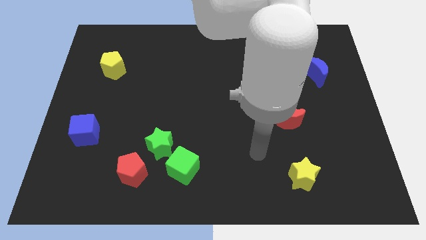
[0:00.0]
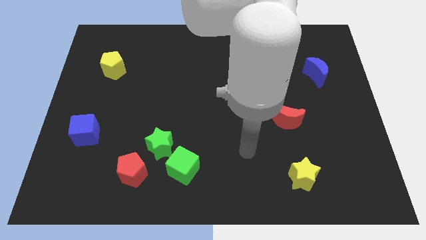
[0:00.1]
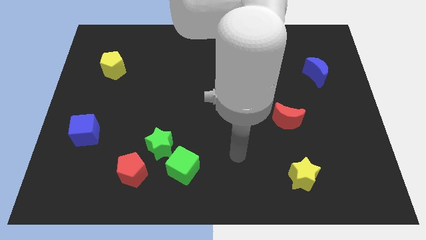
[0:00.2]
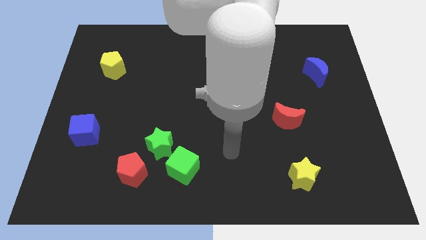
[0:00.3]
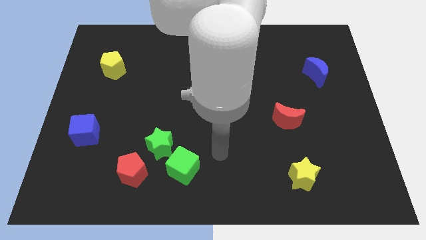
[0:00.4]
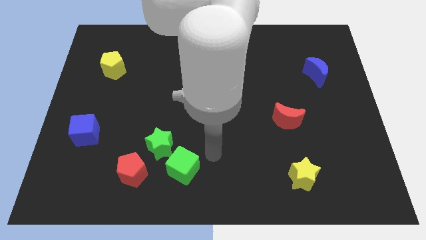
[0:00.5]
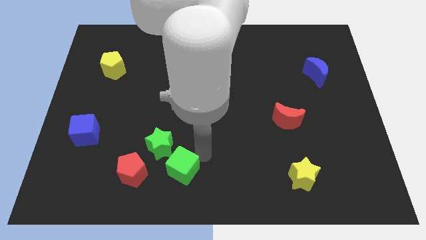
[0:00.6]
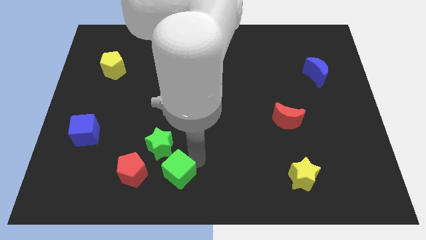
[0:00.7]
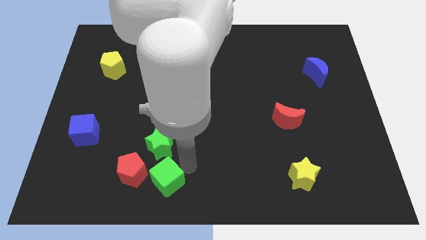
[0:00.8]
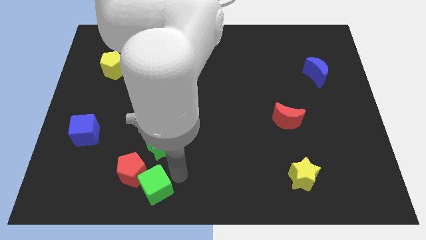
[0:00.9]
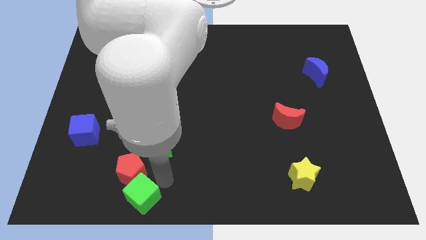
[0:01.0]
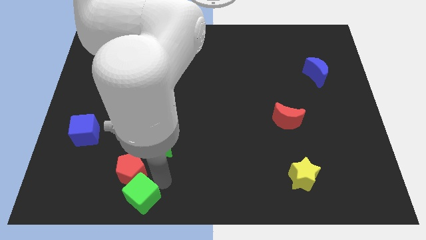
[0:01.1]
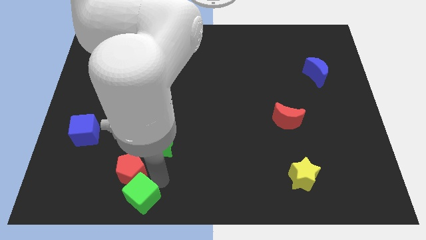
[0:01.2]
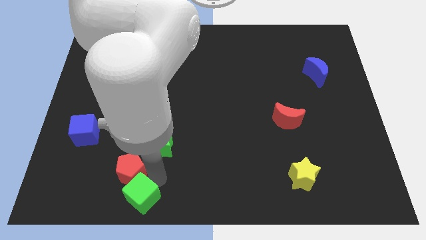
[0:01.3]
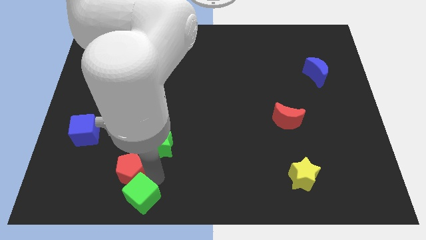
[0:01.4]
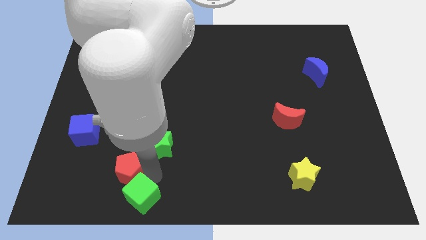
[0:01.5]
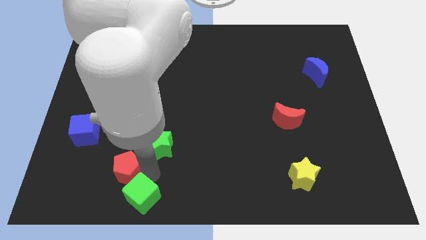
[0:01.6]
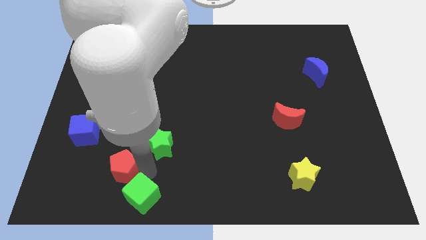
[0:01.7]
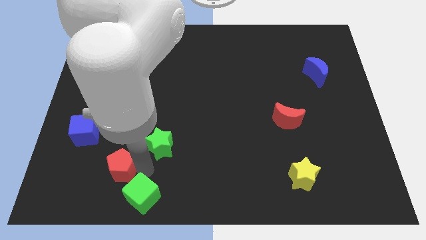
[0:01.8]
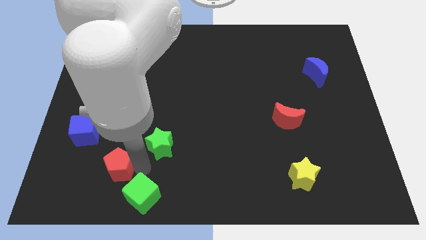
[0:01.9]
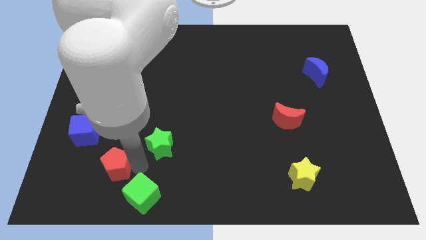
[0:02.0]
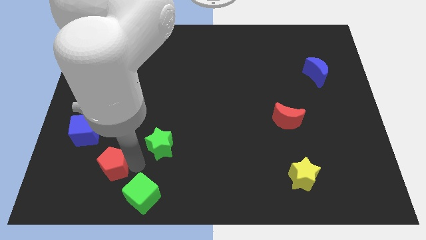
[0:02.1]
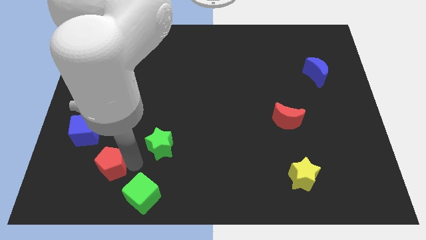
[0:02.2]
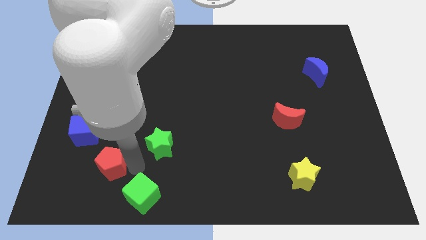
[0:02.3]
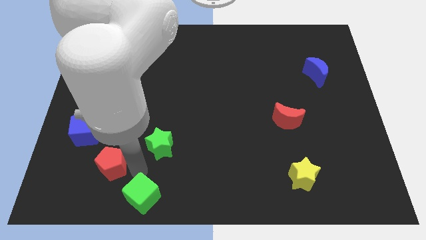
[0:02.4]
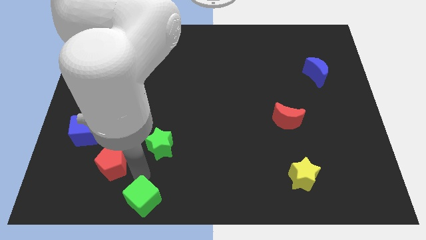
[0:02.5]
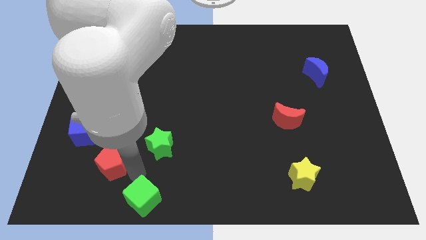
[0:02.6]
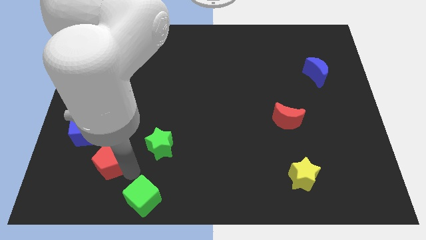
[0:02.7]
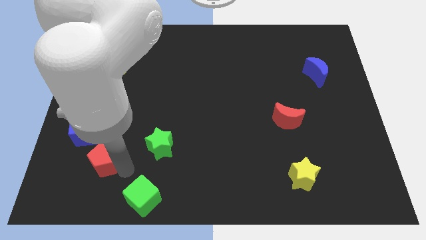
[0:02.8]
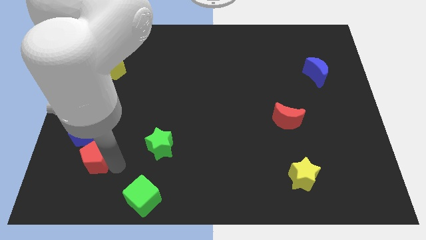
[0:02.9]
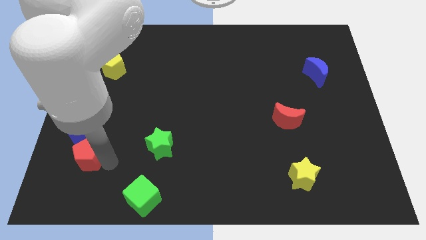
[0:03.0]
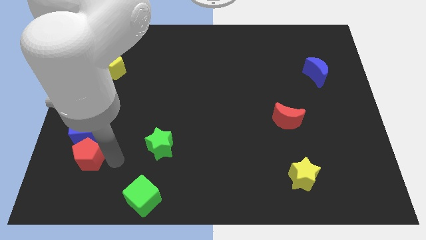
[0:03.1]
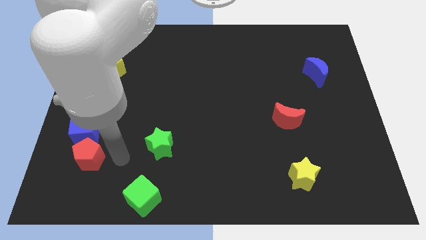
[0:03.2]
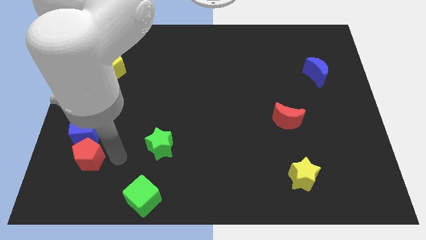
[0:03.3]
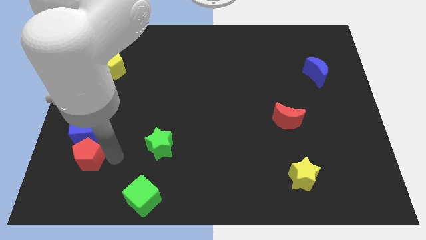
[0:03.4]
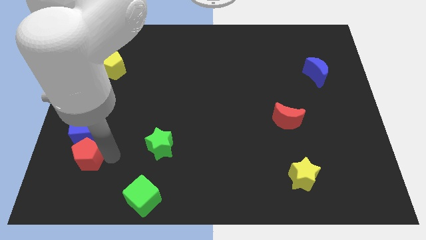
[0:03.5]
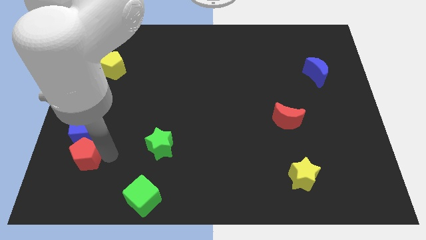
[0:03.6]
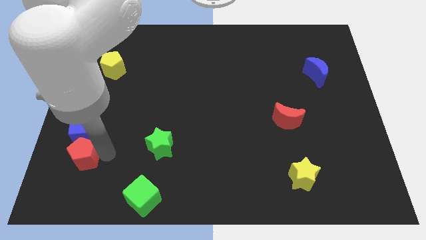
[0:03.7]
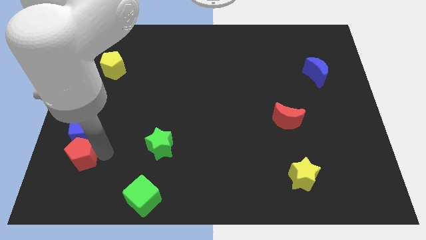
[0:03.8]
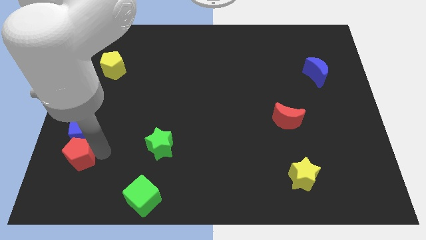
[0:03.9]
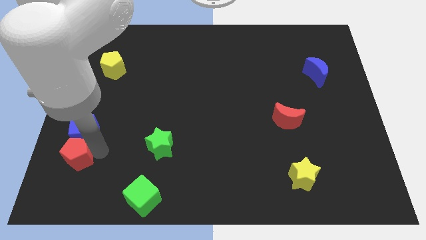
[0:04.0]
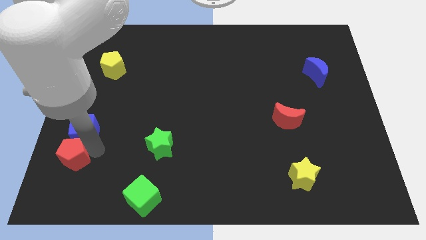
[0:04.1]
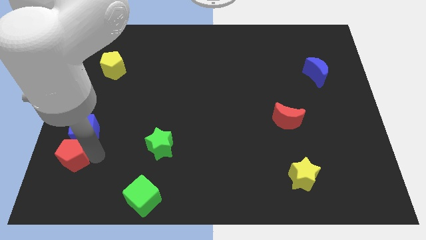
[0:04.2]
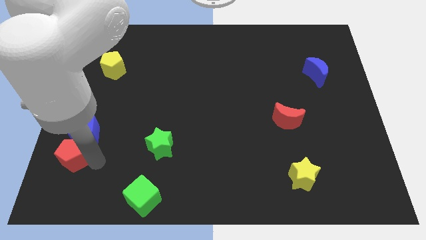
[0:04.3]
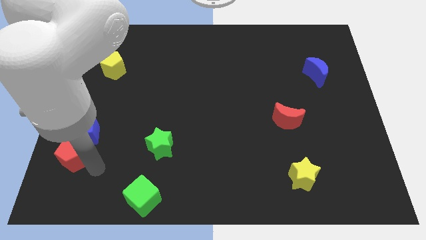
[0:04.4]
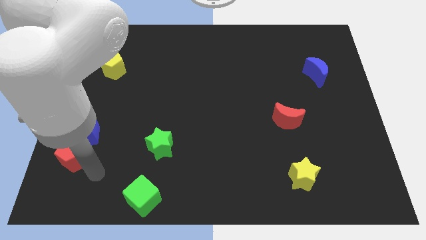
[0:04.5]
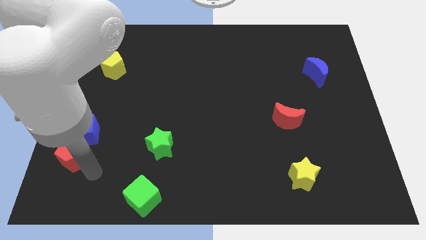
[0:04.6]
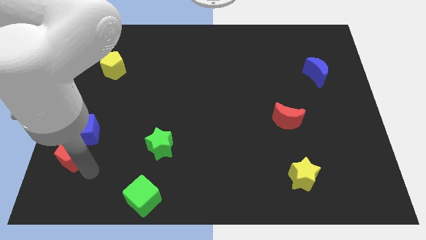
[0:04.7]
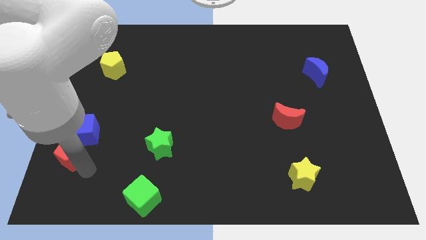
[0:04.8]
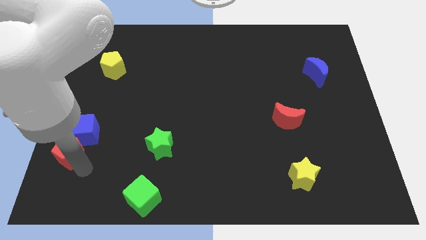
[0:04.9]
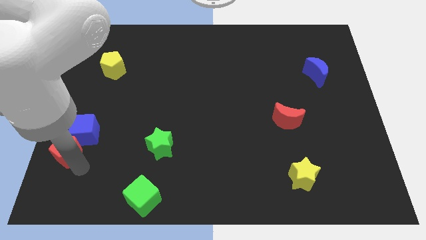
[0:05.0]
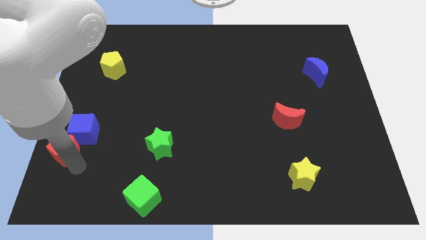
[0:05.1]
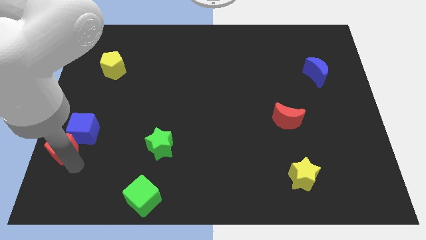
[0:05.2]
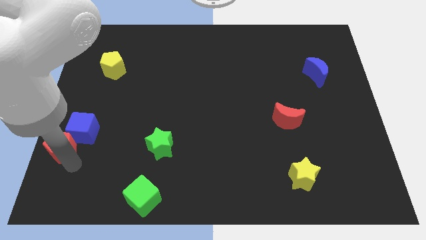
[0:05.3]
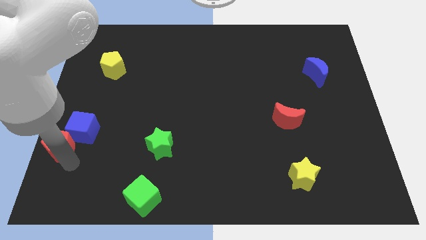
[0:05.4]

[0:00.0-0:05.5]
put the red pentagon to the center left
